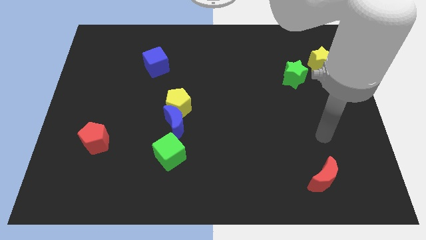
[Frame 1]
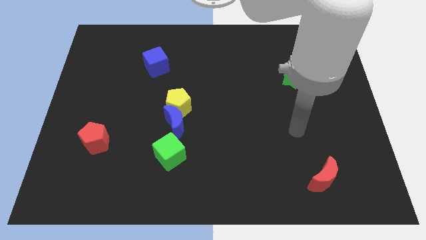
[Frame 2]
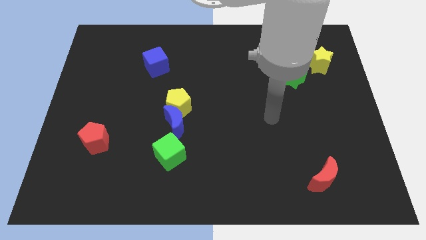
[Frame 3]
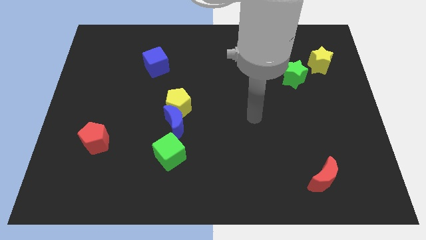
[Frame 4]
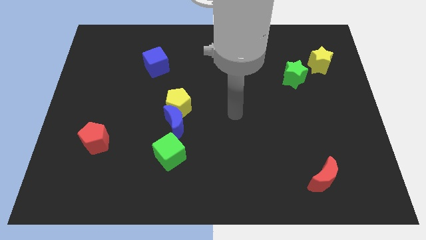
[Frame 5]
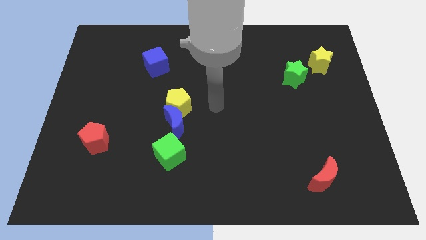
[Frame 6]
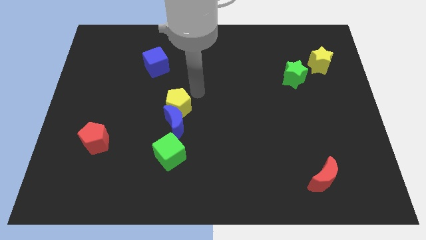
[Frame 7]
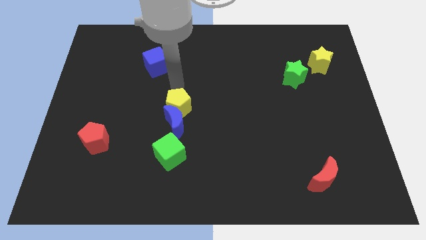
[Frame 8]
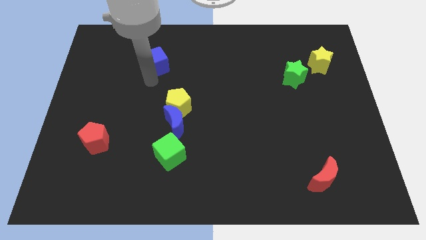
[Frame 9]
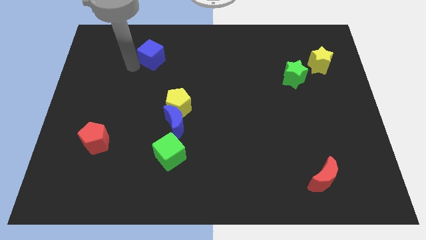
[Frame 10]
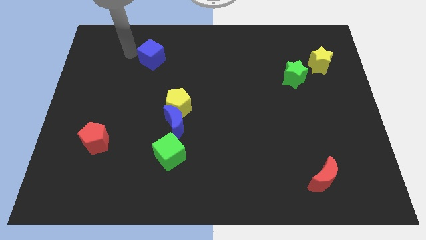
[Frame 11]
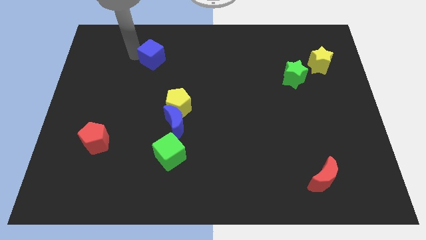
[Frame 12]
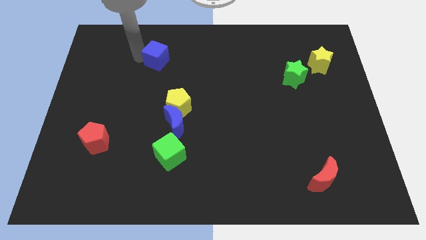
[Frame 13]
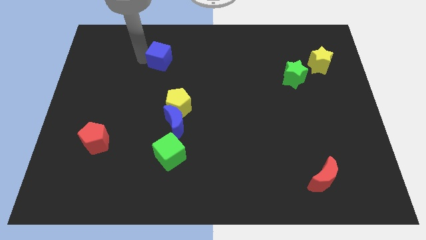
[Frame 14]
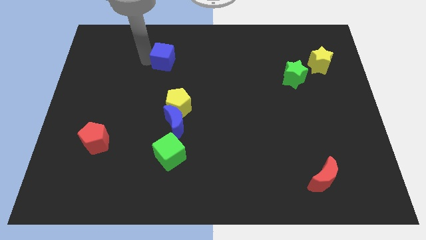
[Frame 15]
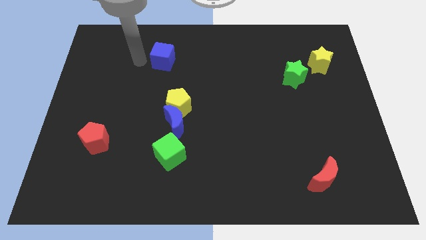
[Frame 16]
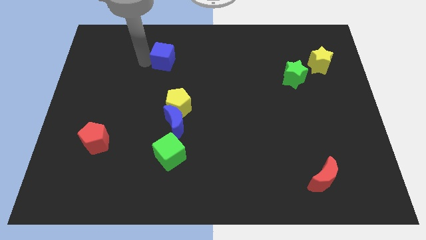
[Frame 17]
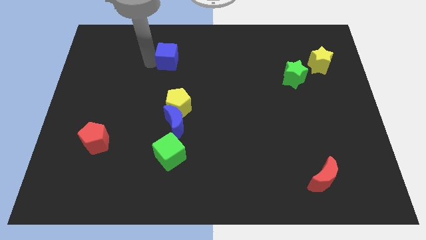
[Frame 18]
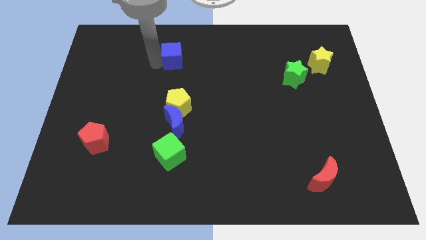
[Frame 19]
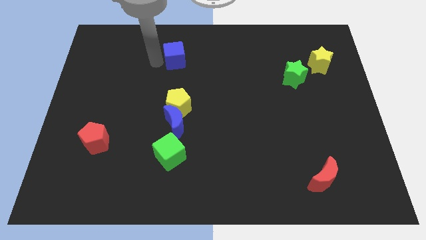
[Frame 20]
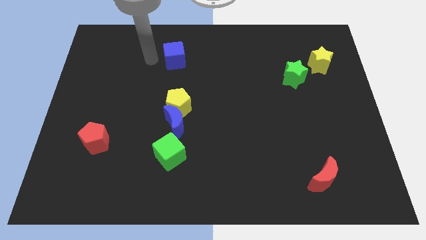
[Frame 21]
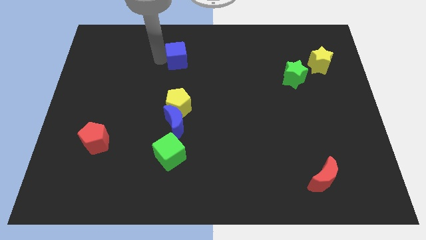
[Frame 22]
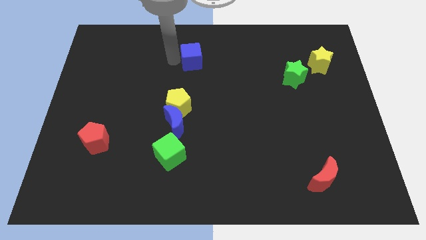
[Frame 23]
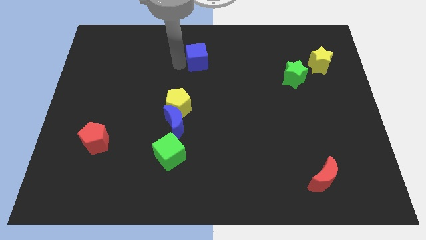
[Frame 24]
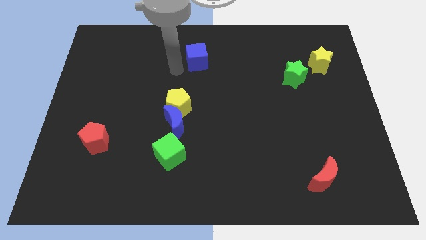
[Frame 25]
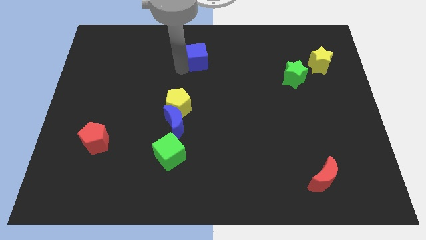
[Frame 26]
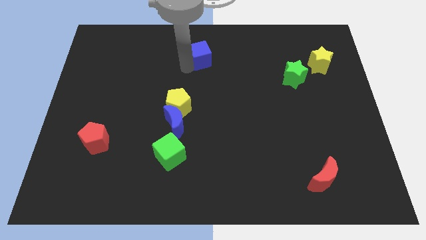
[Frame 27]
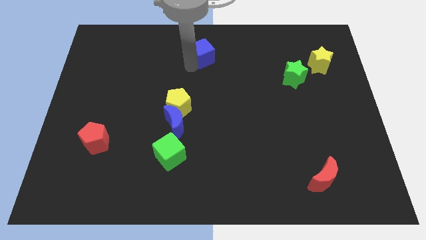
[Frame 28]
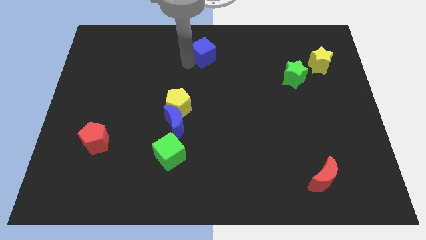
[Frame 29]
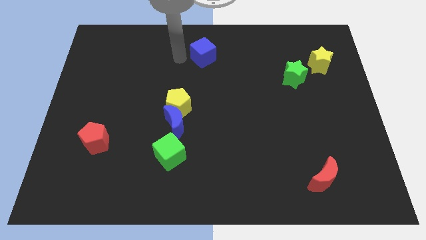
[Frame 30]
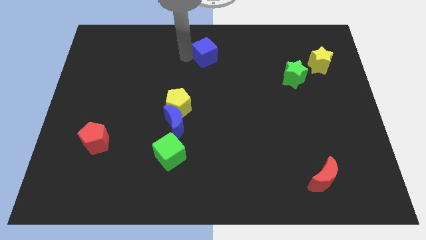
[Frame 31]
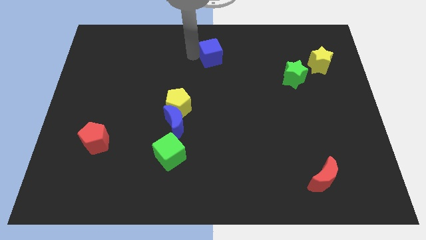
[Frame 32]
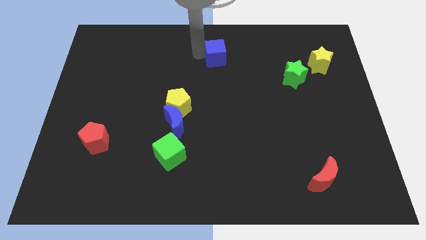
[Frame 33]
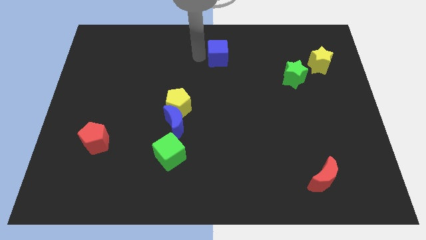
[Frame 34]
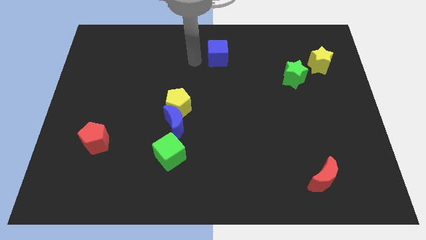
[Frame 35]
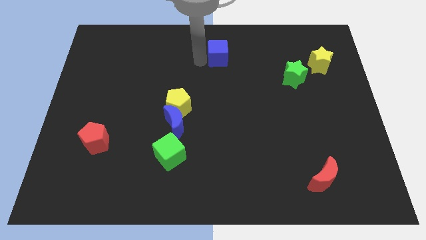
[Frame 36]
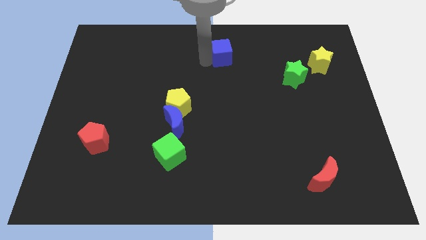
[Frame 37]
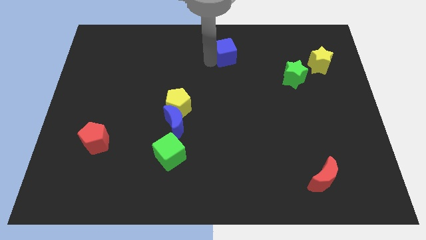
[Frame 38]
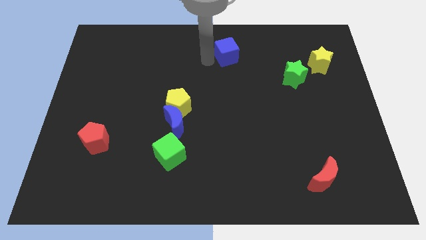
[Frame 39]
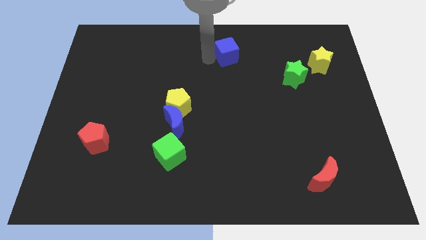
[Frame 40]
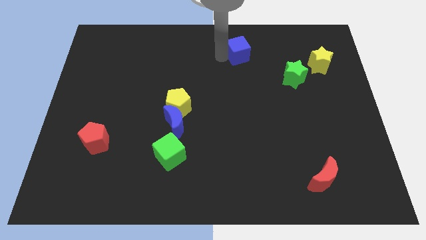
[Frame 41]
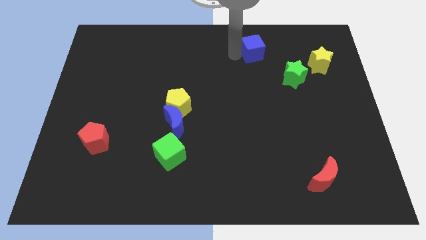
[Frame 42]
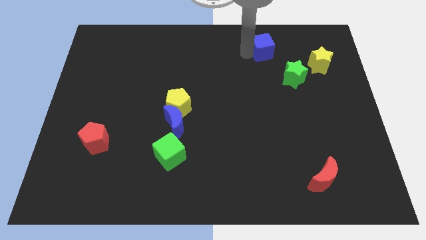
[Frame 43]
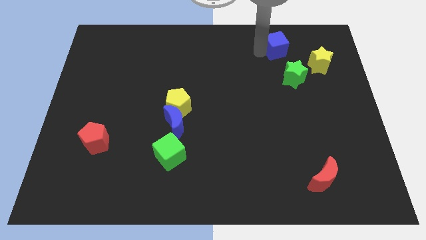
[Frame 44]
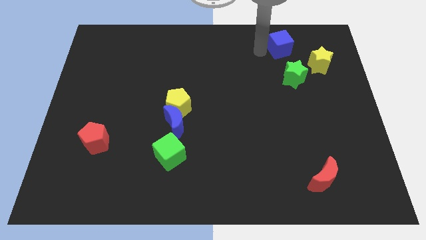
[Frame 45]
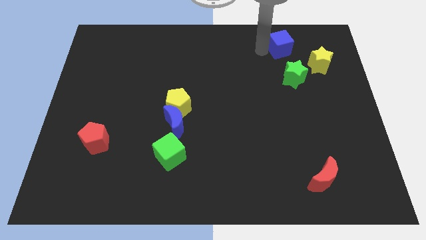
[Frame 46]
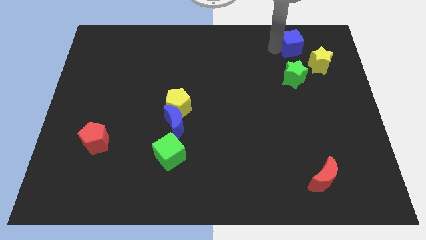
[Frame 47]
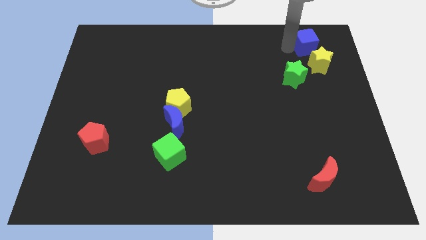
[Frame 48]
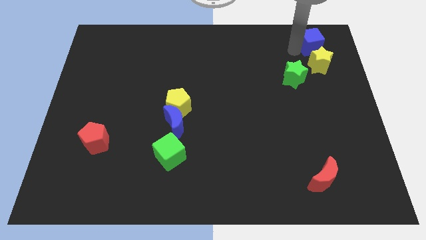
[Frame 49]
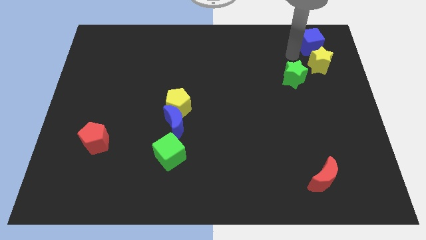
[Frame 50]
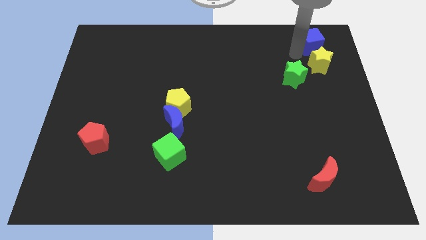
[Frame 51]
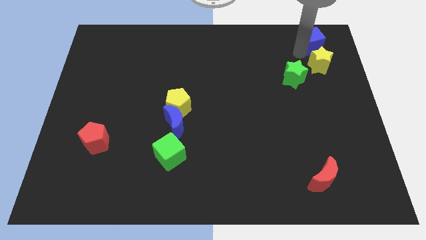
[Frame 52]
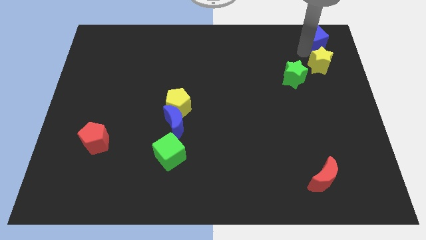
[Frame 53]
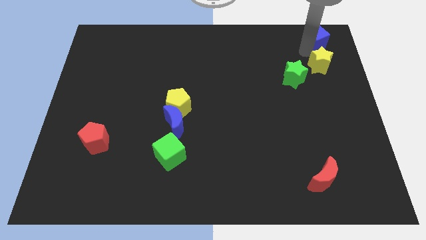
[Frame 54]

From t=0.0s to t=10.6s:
put the blue cube to the top right of the board

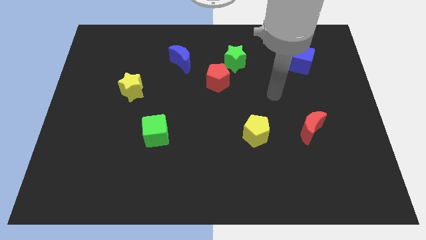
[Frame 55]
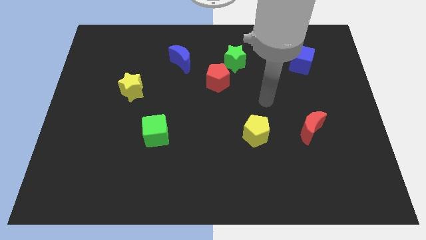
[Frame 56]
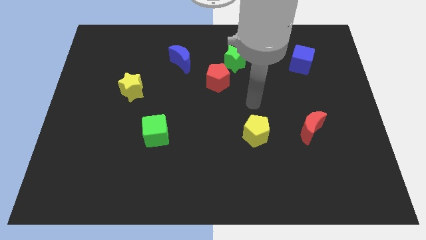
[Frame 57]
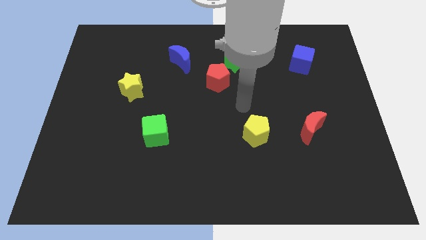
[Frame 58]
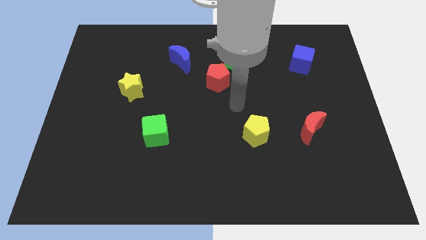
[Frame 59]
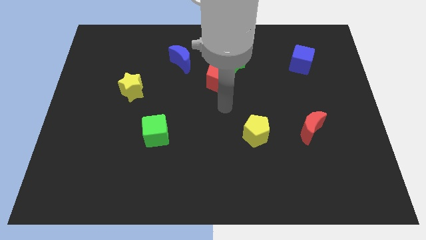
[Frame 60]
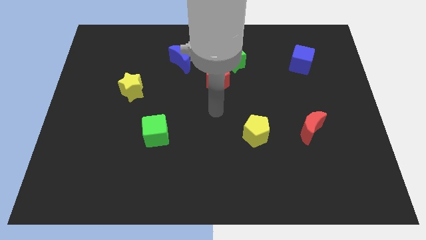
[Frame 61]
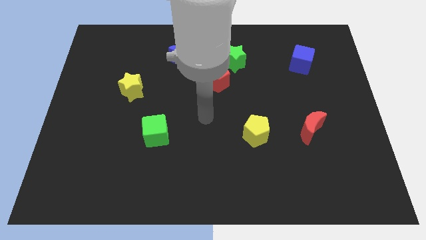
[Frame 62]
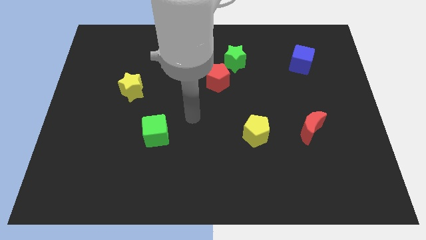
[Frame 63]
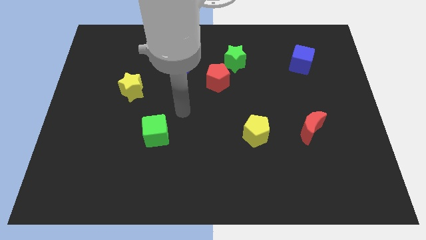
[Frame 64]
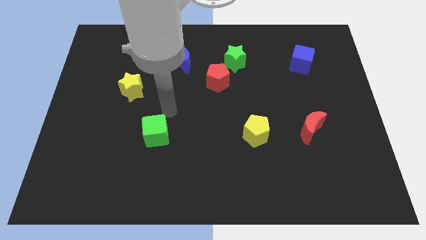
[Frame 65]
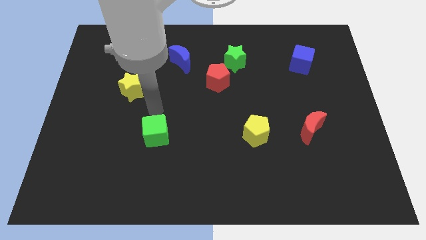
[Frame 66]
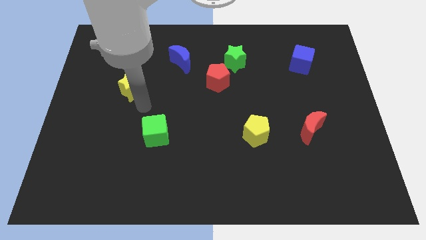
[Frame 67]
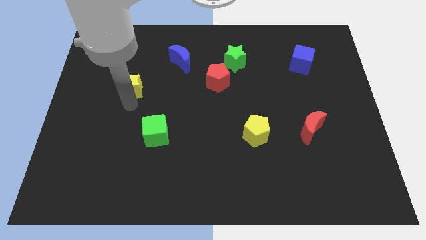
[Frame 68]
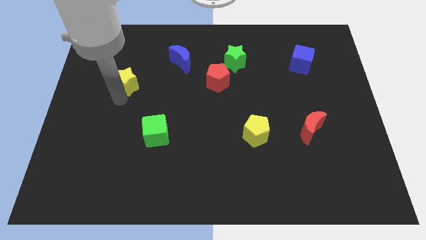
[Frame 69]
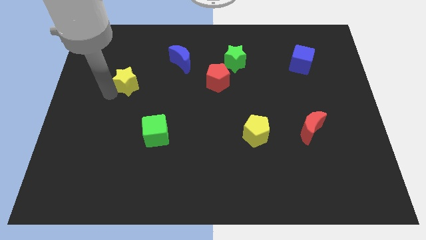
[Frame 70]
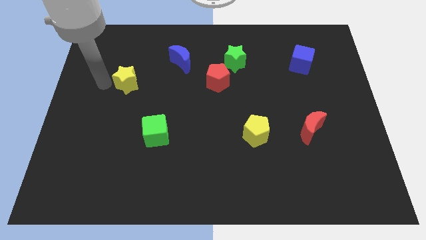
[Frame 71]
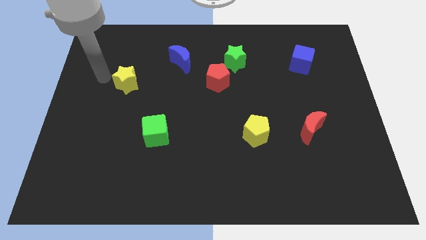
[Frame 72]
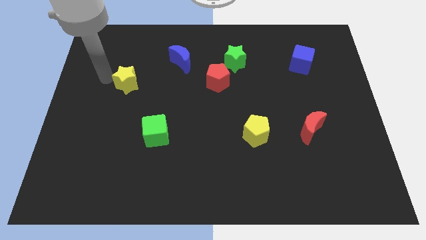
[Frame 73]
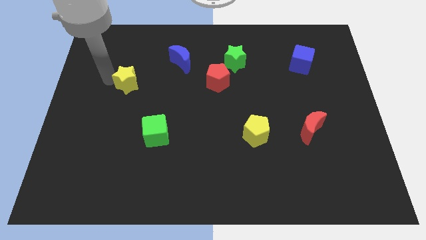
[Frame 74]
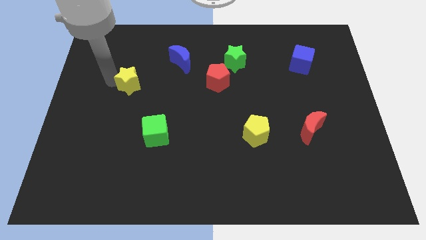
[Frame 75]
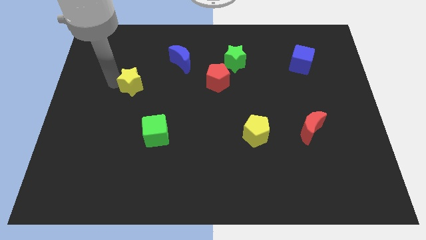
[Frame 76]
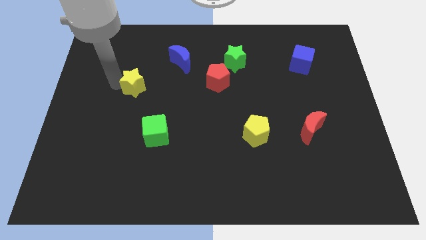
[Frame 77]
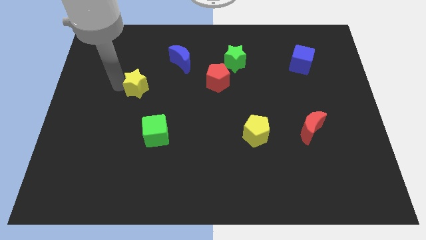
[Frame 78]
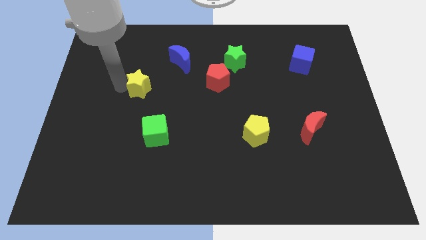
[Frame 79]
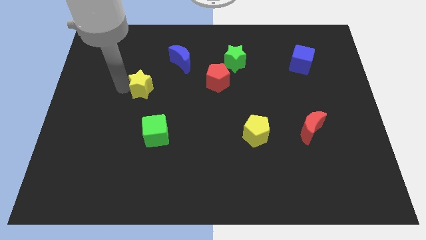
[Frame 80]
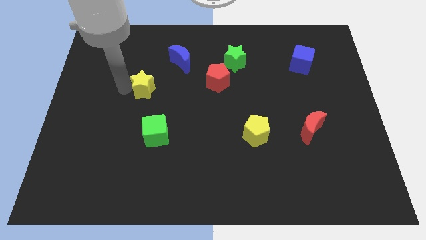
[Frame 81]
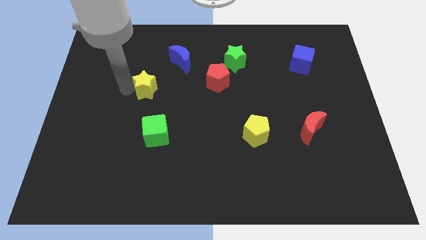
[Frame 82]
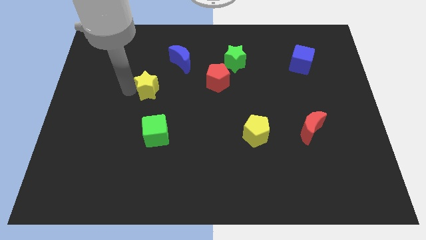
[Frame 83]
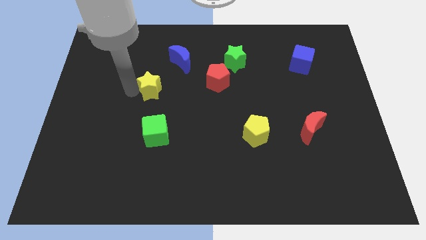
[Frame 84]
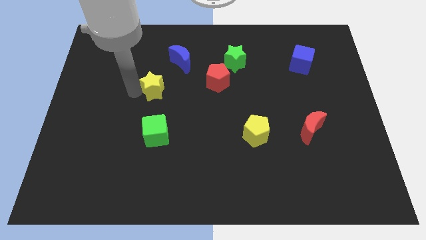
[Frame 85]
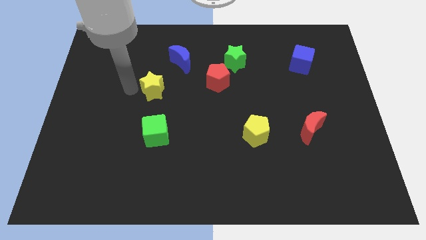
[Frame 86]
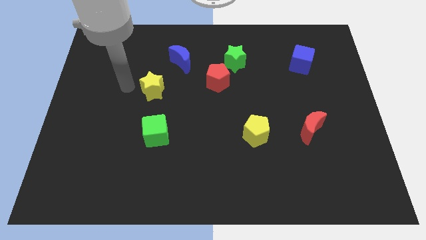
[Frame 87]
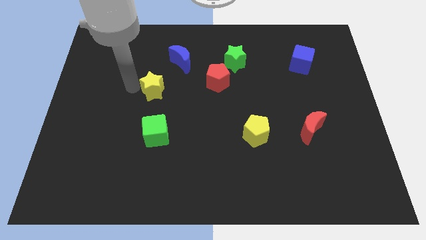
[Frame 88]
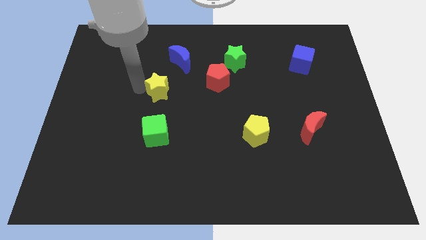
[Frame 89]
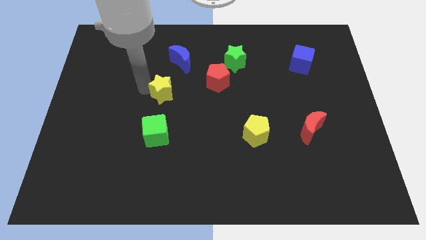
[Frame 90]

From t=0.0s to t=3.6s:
put the yellow star to the center
